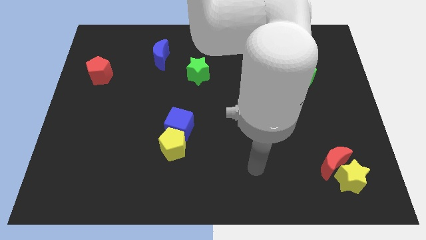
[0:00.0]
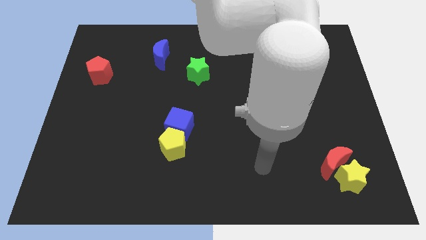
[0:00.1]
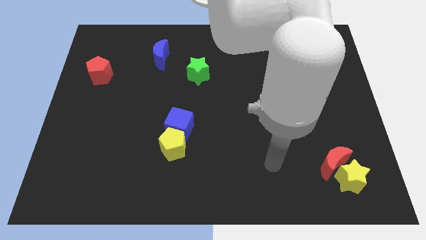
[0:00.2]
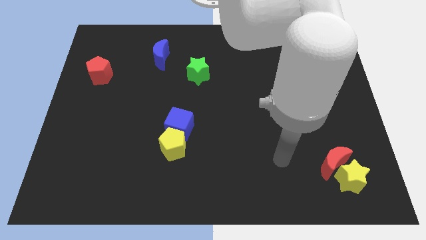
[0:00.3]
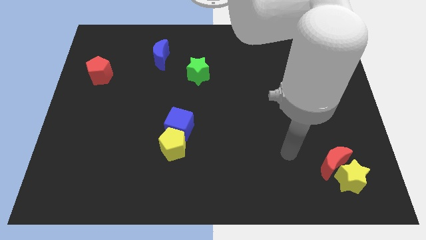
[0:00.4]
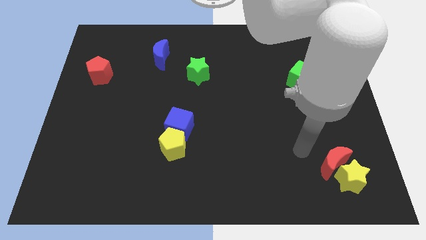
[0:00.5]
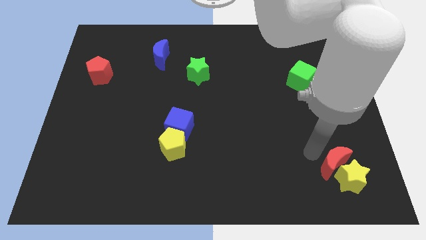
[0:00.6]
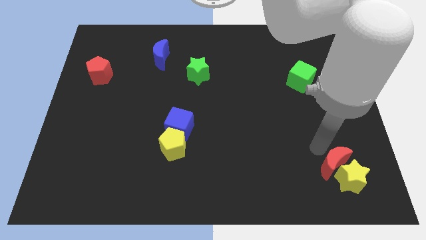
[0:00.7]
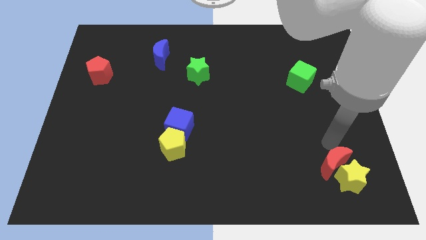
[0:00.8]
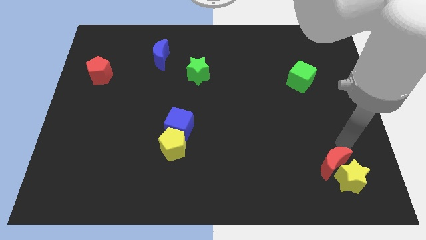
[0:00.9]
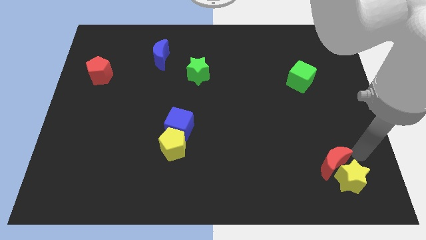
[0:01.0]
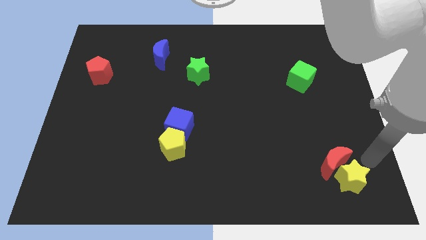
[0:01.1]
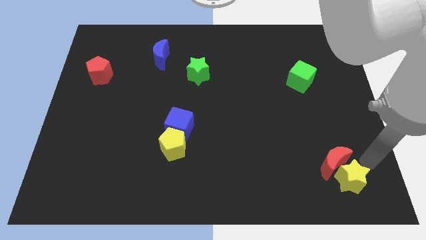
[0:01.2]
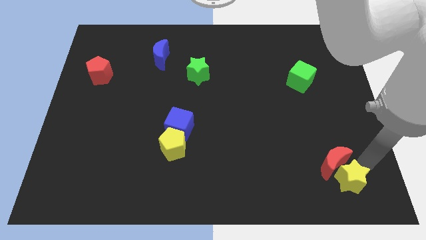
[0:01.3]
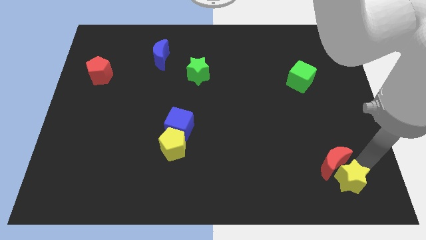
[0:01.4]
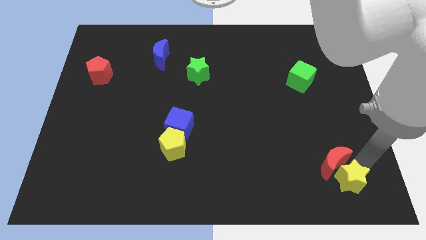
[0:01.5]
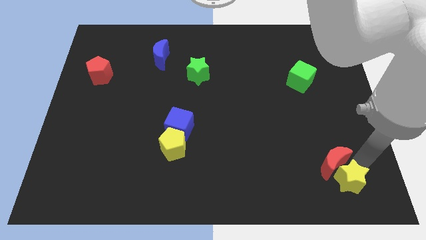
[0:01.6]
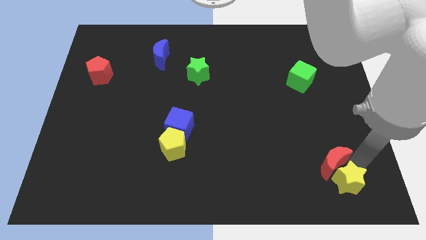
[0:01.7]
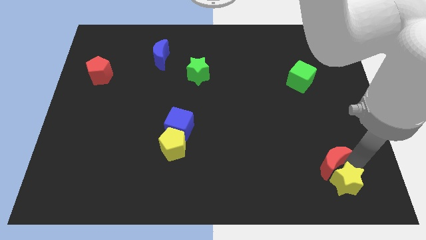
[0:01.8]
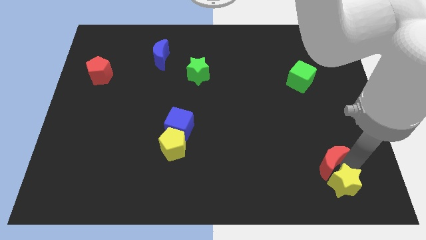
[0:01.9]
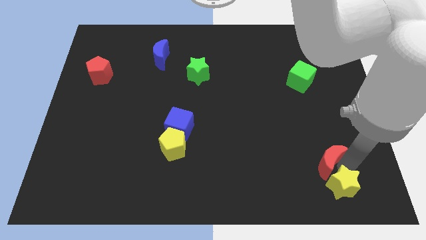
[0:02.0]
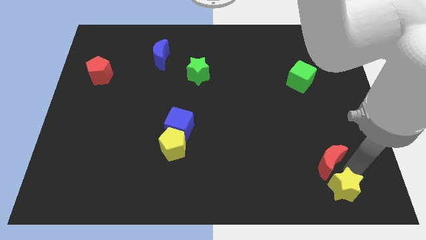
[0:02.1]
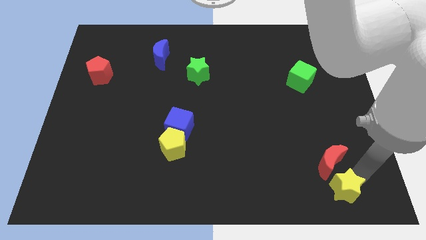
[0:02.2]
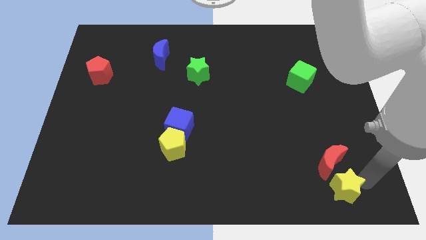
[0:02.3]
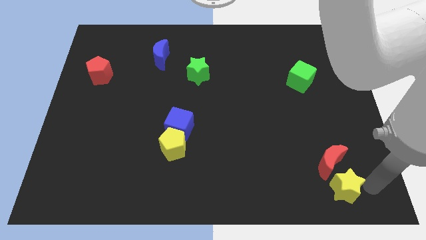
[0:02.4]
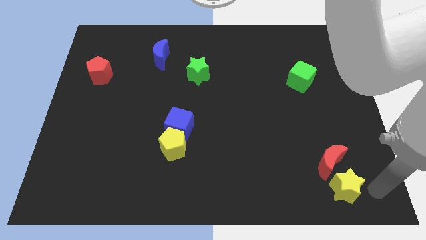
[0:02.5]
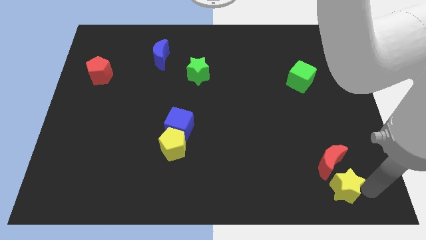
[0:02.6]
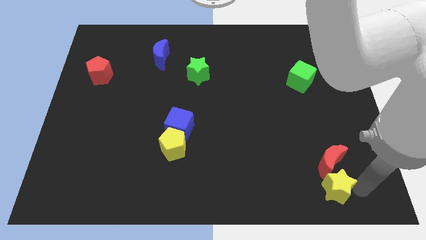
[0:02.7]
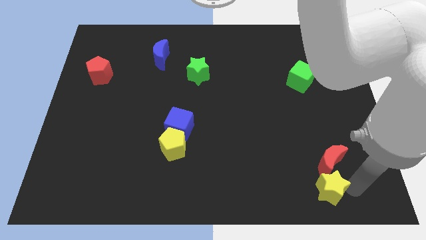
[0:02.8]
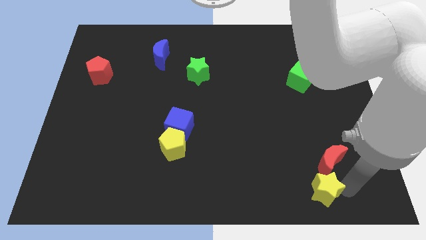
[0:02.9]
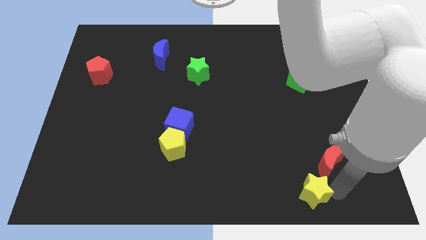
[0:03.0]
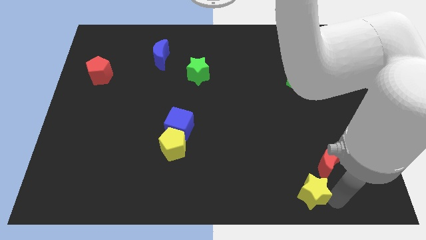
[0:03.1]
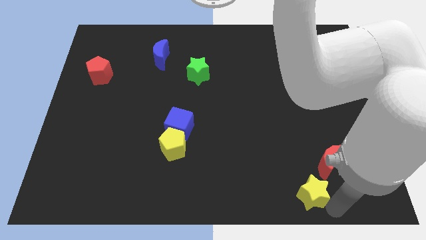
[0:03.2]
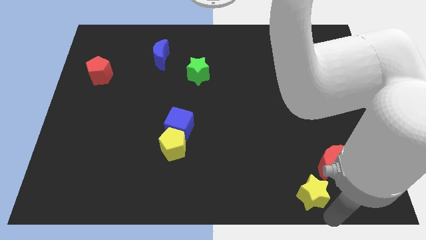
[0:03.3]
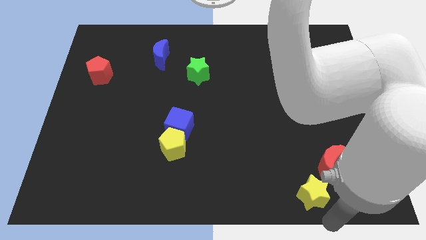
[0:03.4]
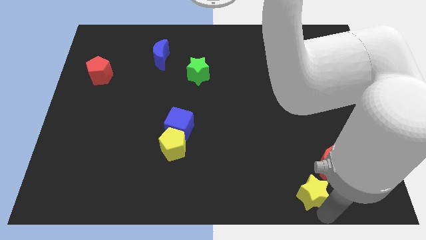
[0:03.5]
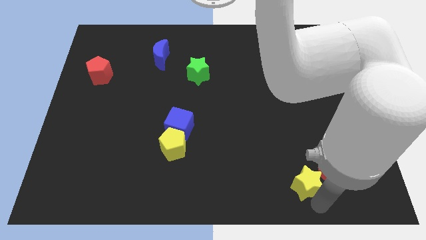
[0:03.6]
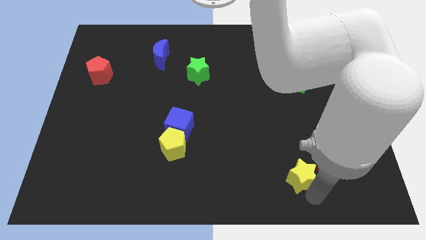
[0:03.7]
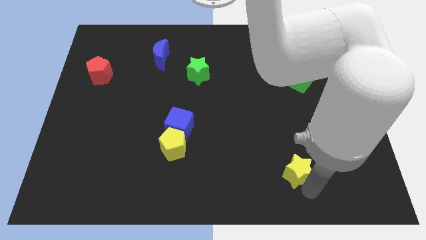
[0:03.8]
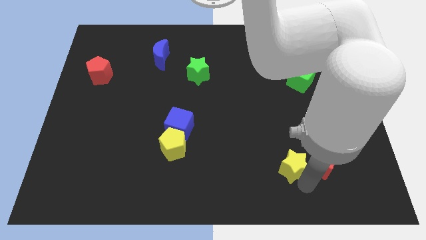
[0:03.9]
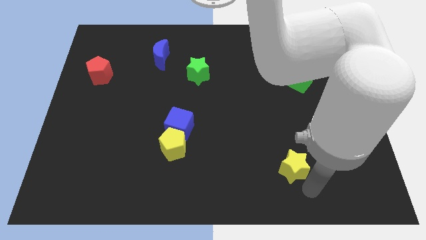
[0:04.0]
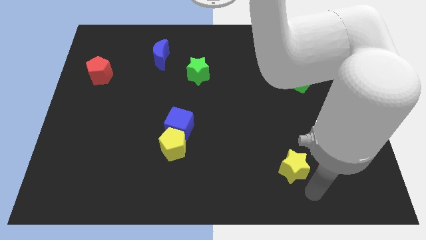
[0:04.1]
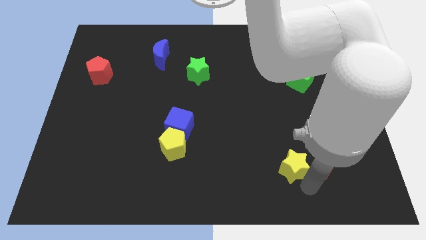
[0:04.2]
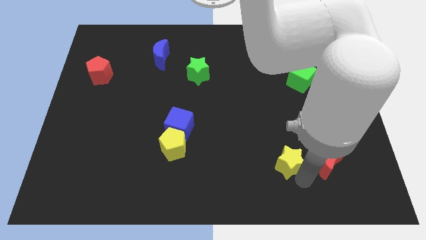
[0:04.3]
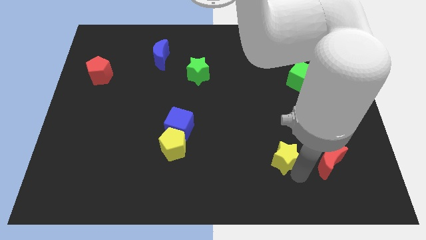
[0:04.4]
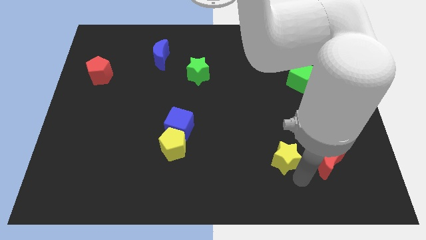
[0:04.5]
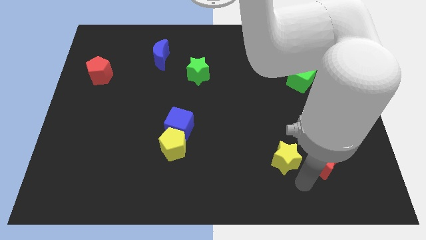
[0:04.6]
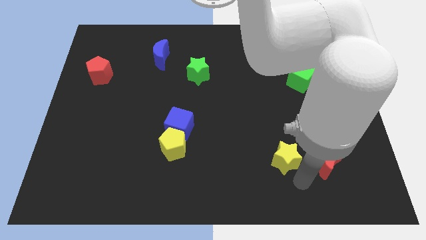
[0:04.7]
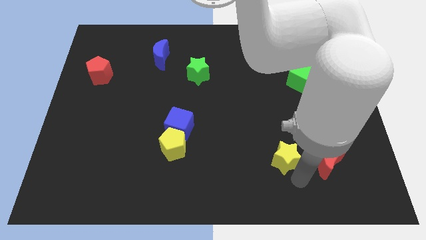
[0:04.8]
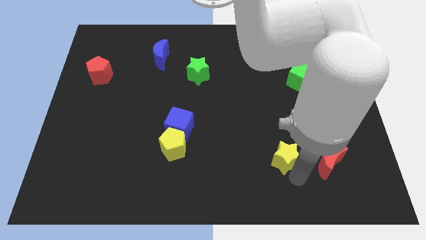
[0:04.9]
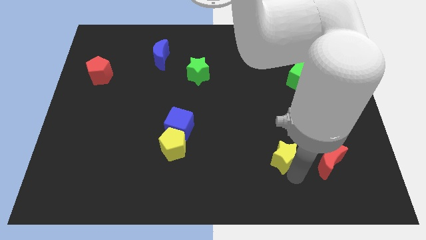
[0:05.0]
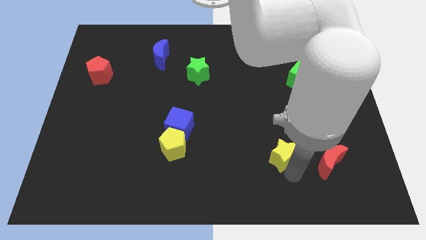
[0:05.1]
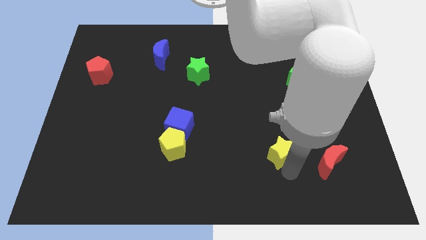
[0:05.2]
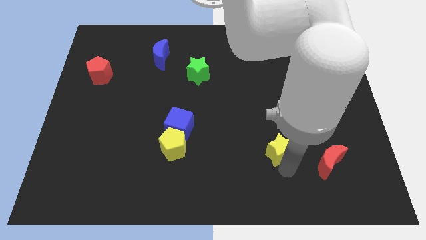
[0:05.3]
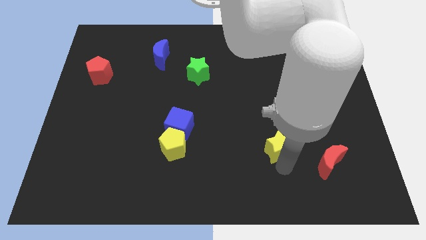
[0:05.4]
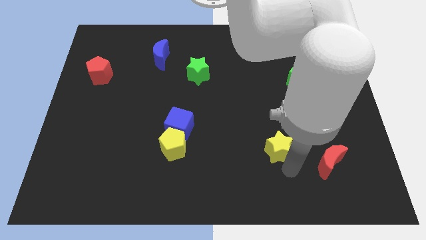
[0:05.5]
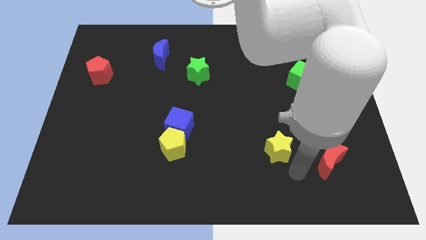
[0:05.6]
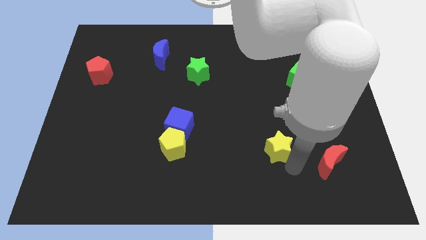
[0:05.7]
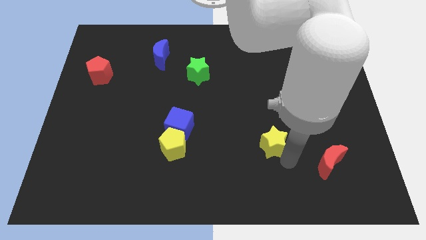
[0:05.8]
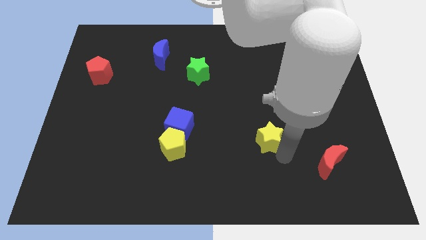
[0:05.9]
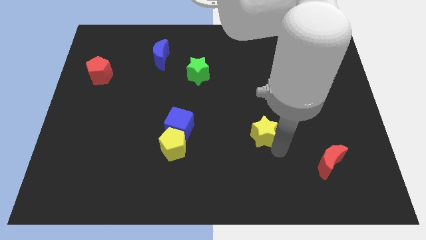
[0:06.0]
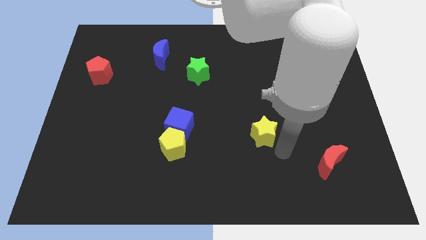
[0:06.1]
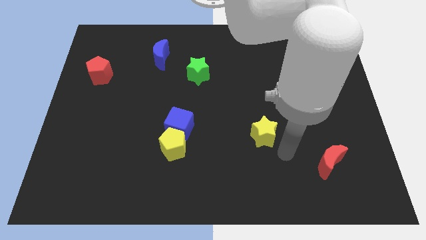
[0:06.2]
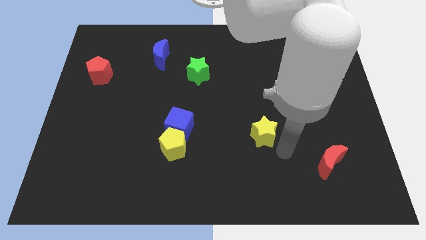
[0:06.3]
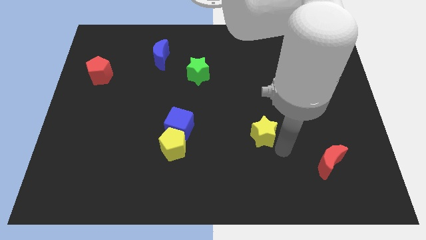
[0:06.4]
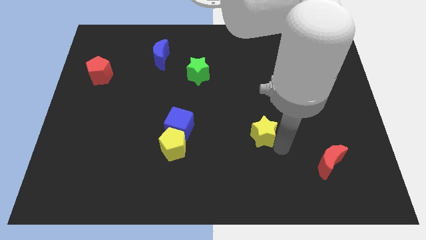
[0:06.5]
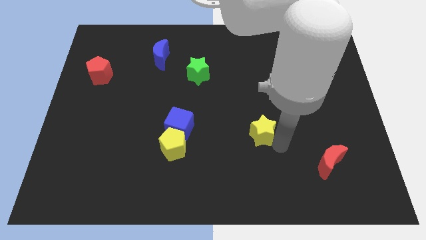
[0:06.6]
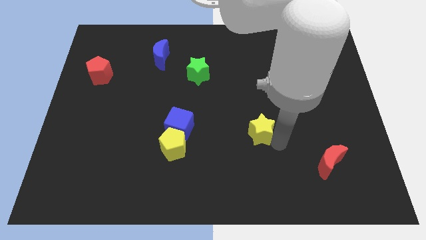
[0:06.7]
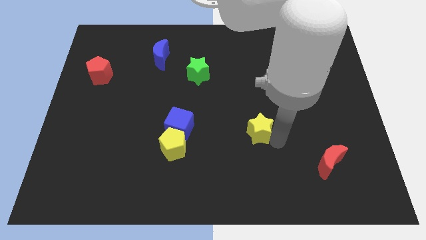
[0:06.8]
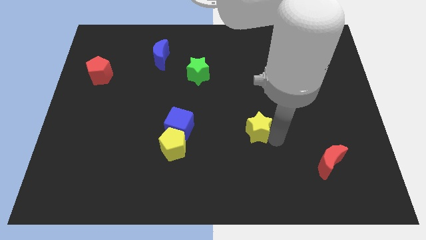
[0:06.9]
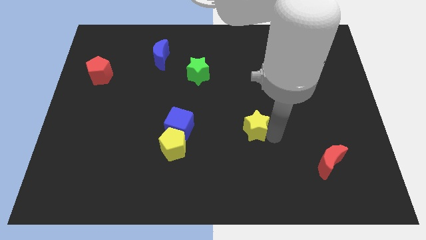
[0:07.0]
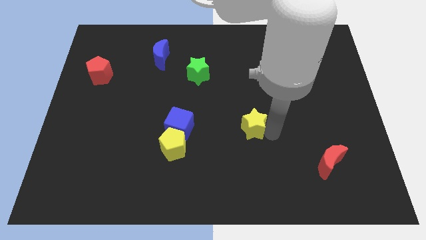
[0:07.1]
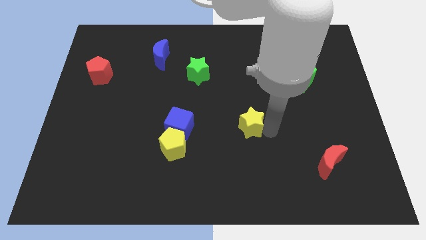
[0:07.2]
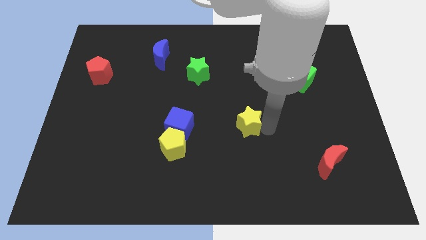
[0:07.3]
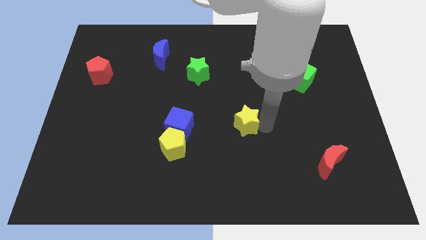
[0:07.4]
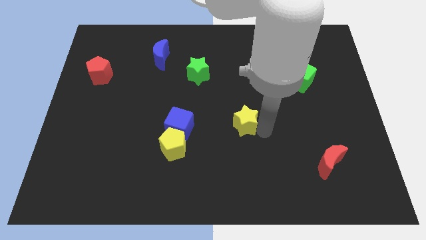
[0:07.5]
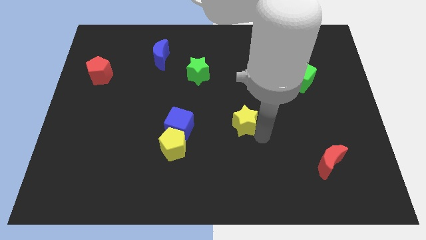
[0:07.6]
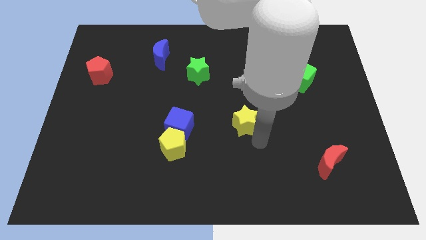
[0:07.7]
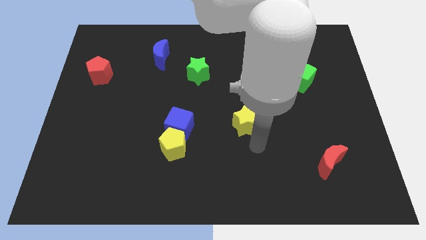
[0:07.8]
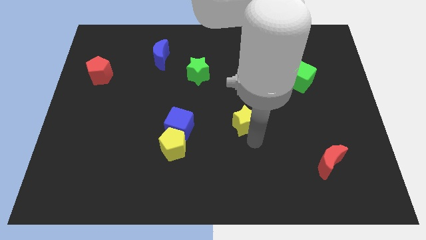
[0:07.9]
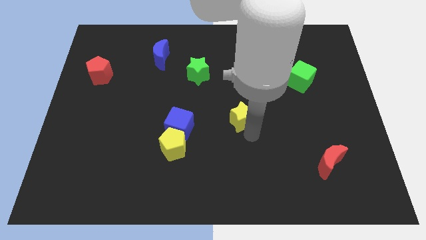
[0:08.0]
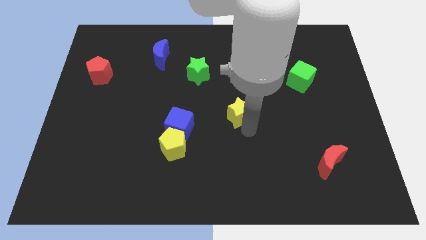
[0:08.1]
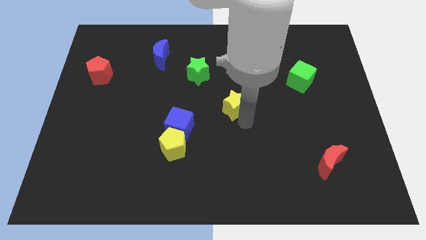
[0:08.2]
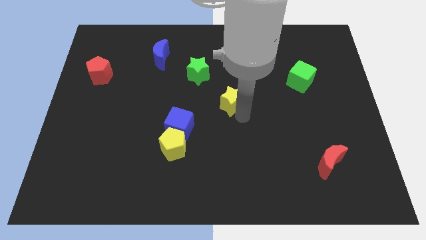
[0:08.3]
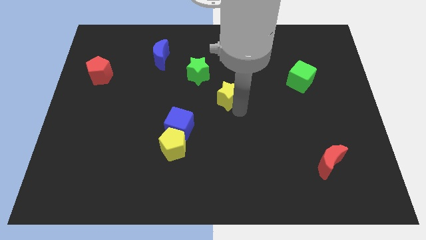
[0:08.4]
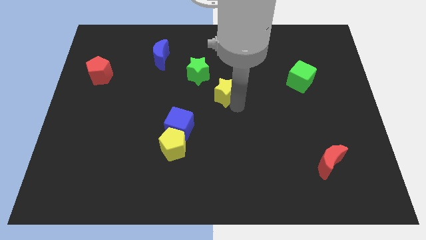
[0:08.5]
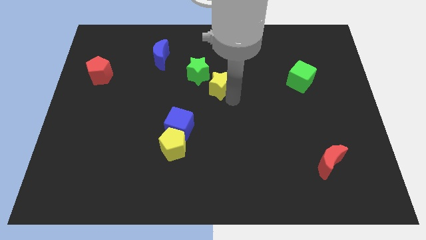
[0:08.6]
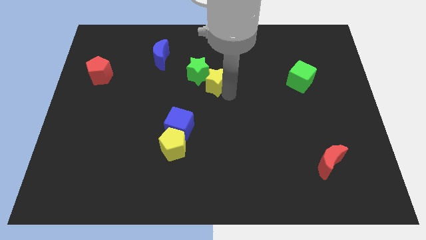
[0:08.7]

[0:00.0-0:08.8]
move the yellow star next to the green star
